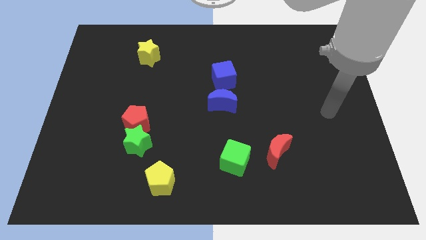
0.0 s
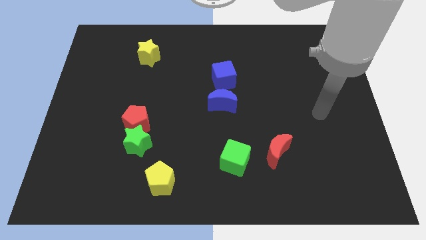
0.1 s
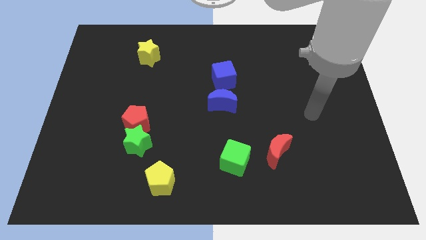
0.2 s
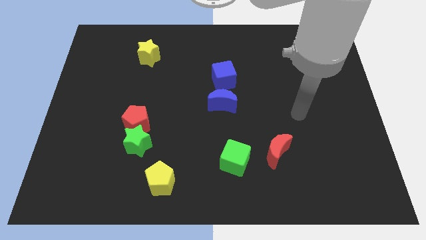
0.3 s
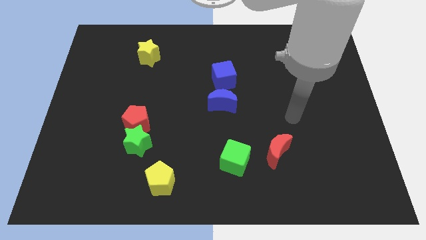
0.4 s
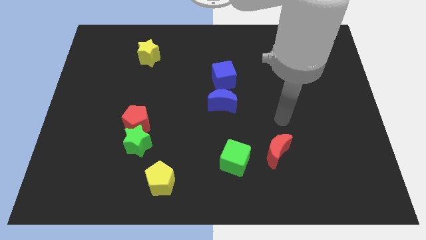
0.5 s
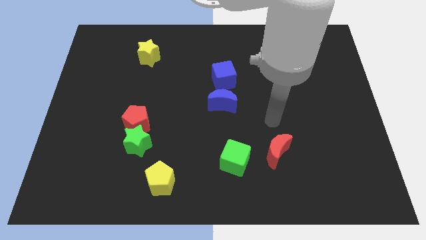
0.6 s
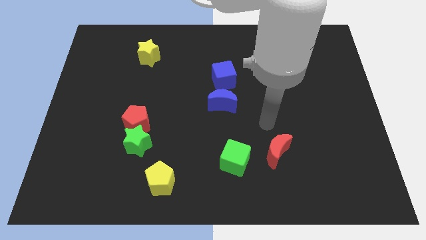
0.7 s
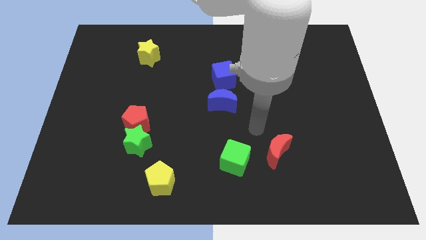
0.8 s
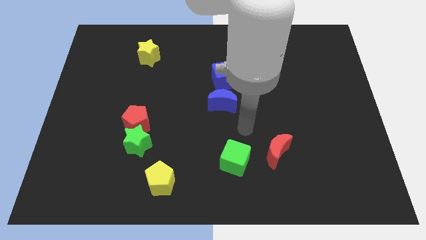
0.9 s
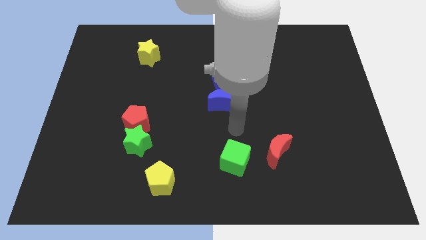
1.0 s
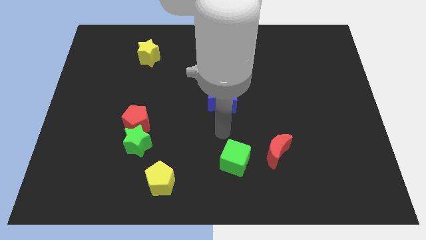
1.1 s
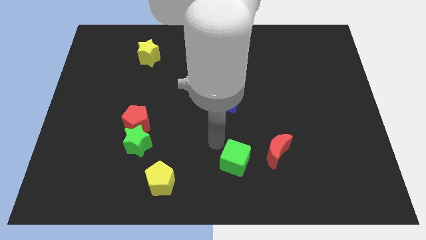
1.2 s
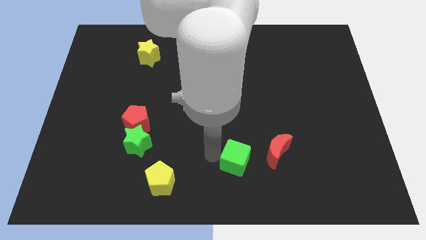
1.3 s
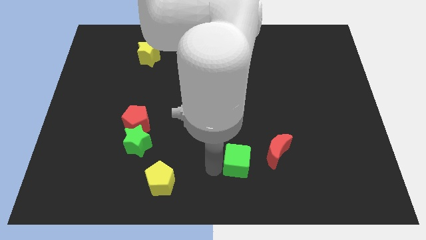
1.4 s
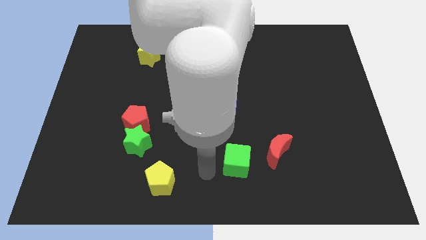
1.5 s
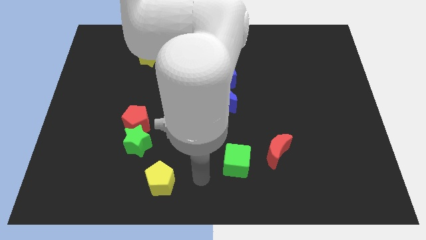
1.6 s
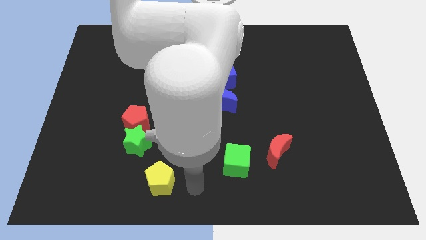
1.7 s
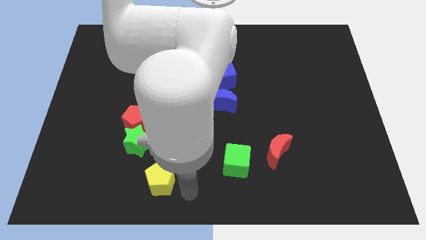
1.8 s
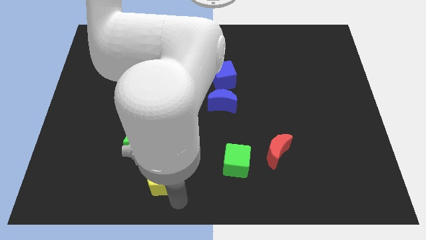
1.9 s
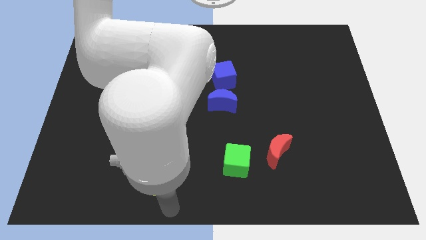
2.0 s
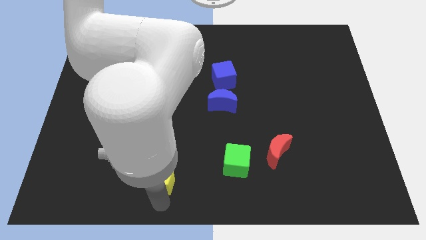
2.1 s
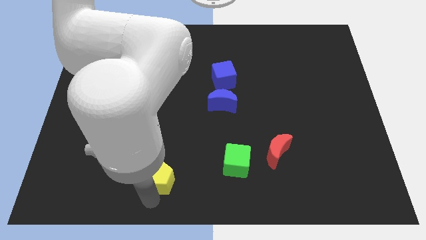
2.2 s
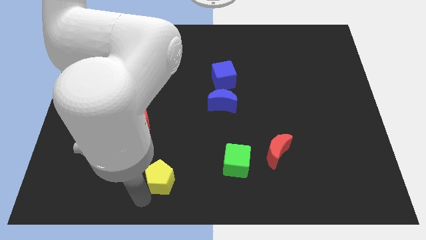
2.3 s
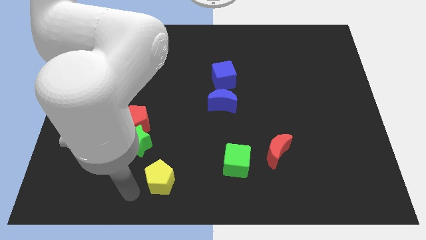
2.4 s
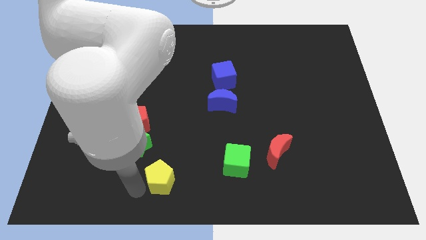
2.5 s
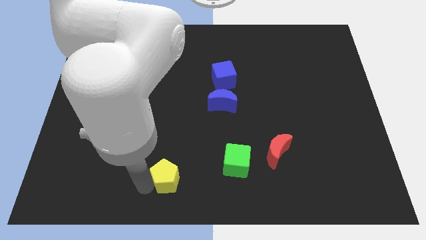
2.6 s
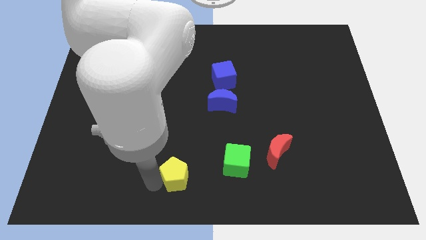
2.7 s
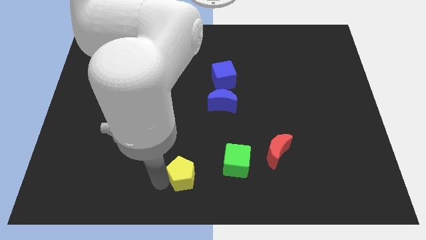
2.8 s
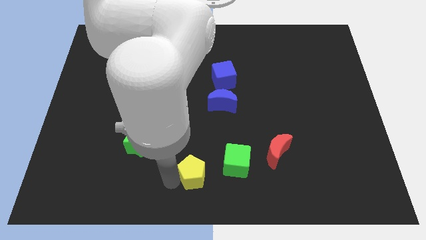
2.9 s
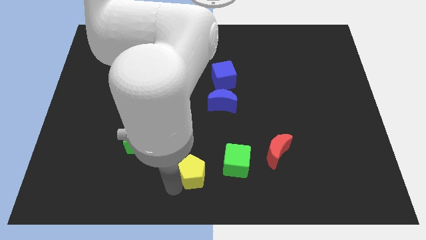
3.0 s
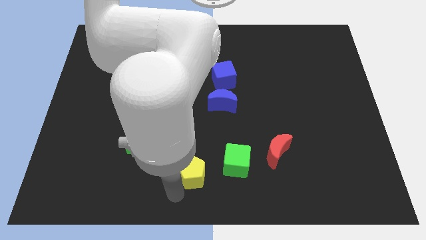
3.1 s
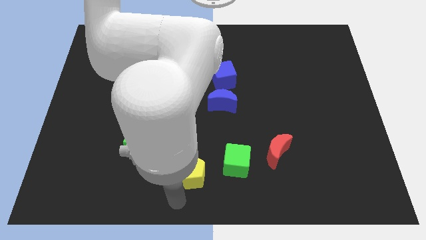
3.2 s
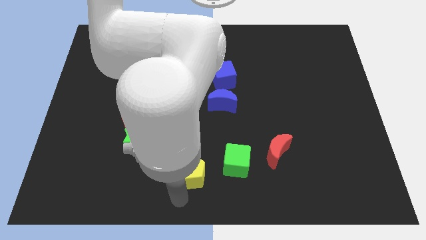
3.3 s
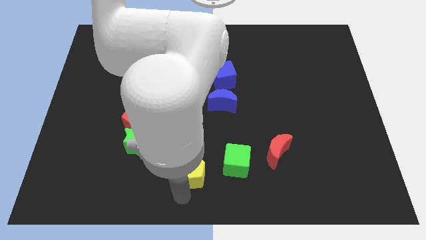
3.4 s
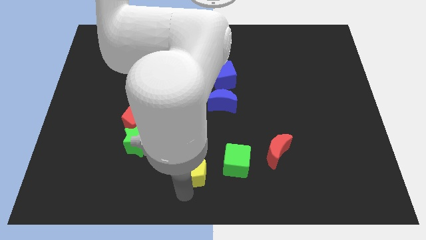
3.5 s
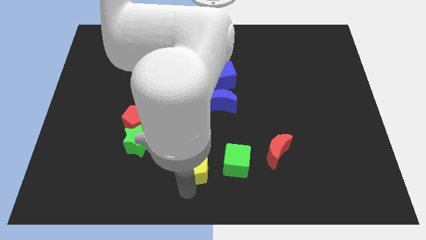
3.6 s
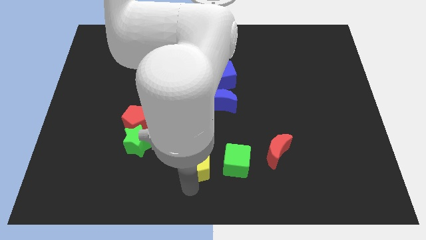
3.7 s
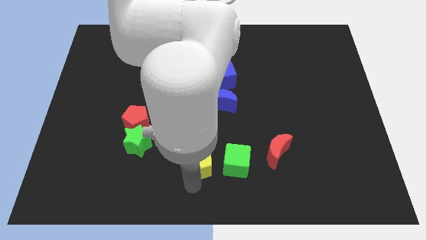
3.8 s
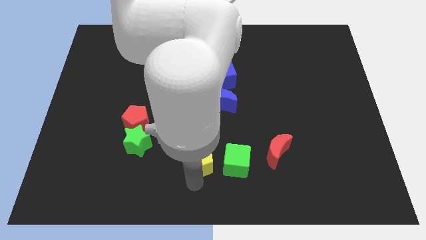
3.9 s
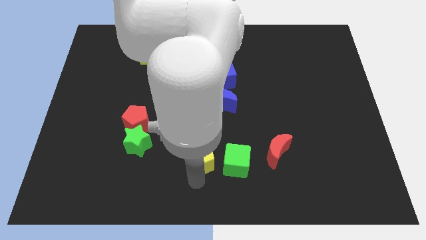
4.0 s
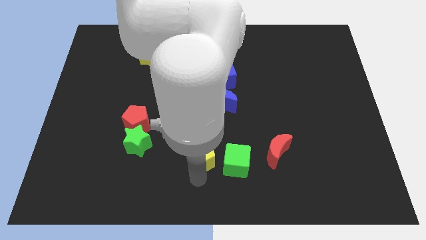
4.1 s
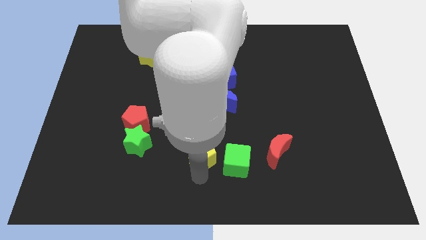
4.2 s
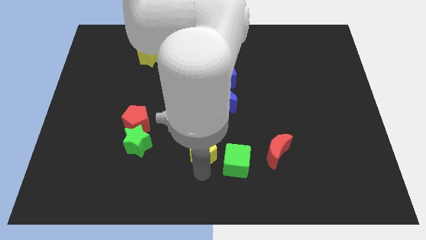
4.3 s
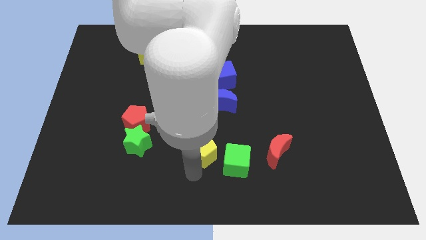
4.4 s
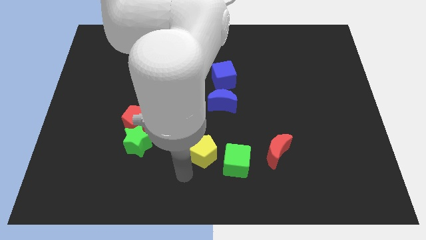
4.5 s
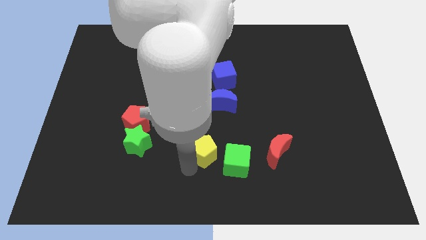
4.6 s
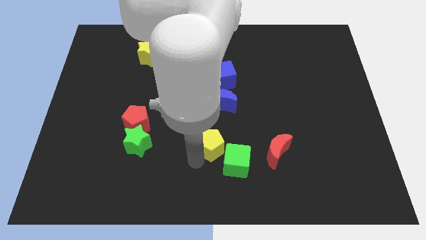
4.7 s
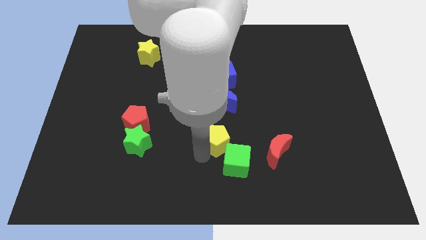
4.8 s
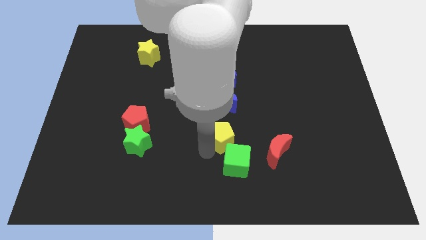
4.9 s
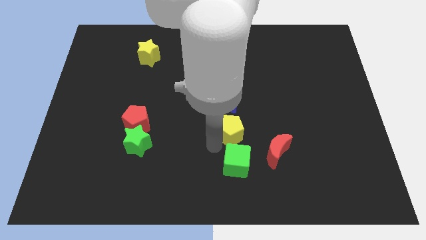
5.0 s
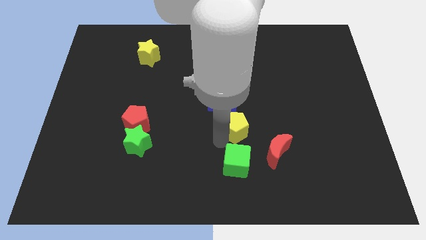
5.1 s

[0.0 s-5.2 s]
move the yellow pentagon up and then to the right

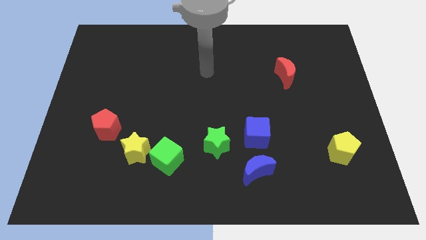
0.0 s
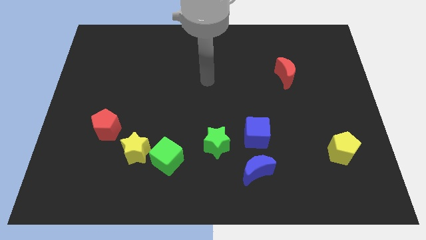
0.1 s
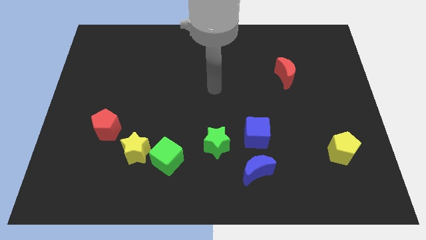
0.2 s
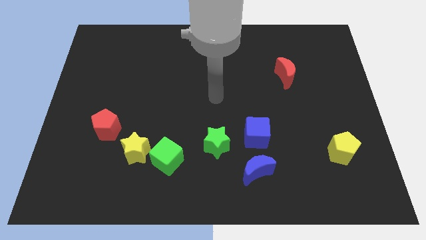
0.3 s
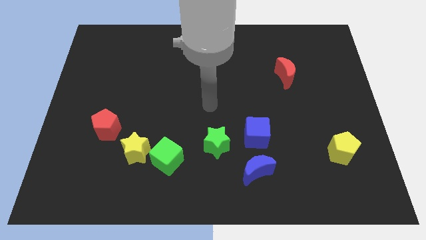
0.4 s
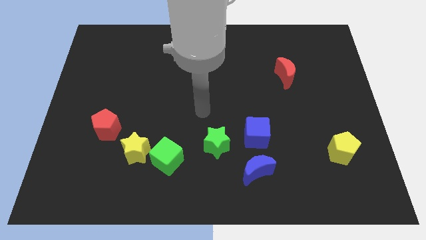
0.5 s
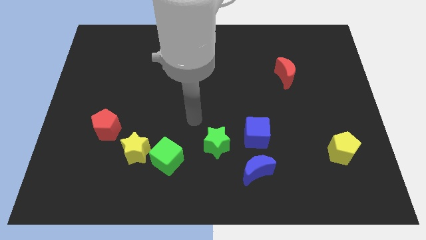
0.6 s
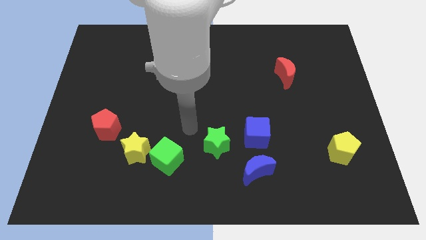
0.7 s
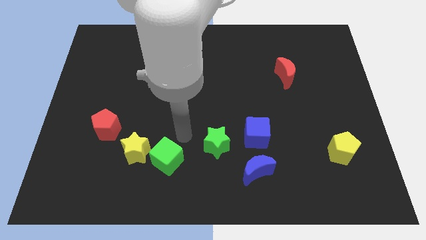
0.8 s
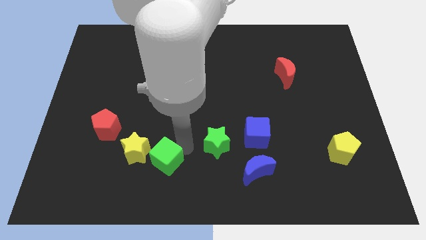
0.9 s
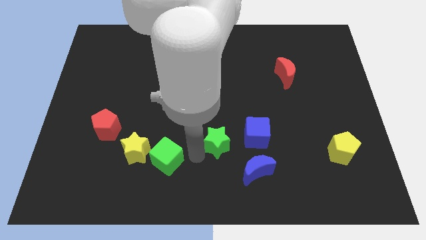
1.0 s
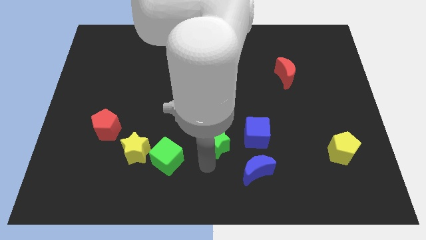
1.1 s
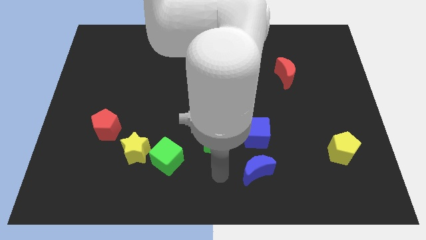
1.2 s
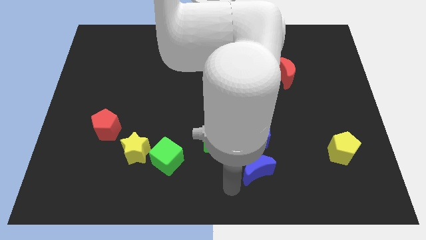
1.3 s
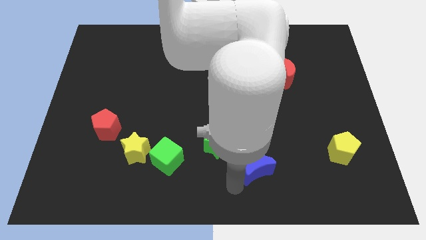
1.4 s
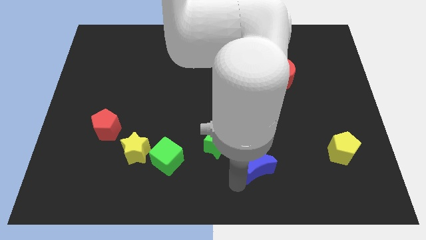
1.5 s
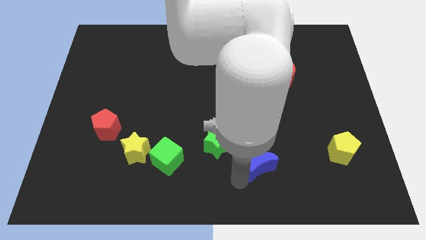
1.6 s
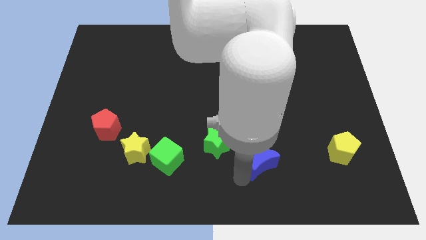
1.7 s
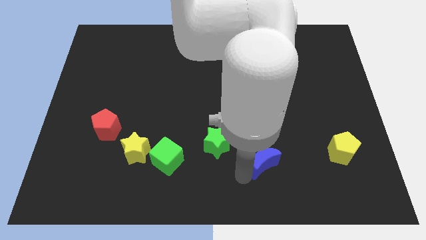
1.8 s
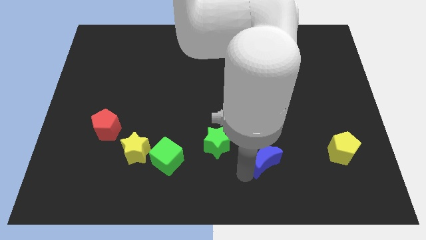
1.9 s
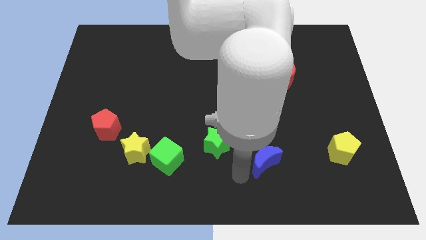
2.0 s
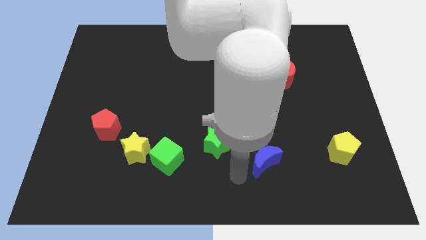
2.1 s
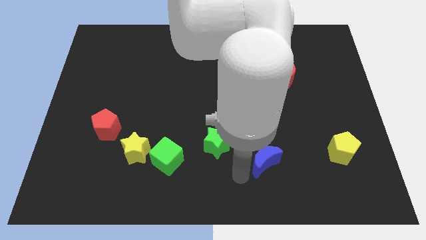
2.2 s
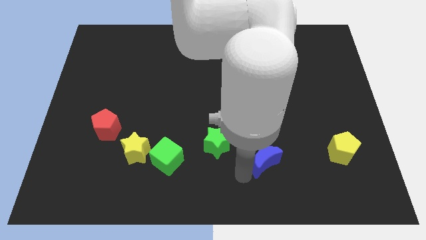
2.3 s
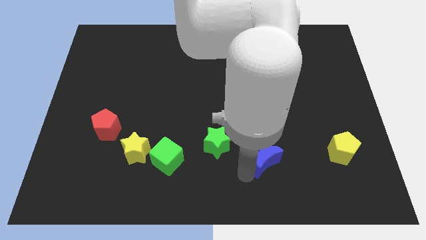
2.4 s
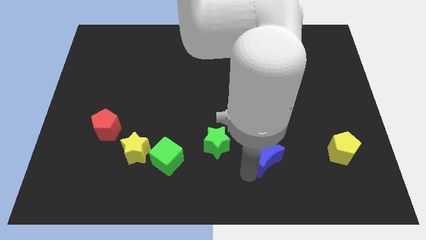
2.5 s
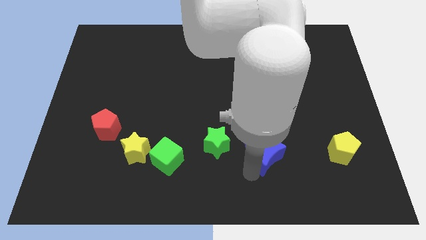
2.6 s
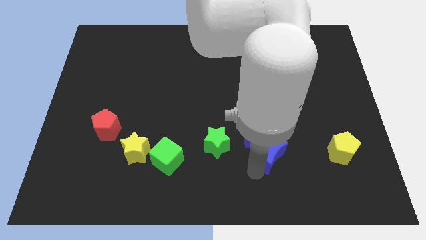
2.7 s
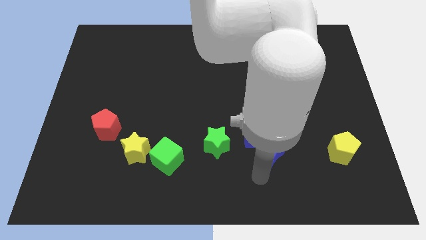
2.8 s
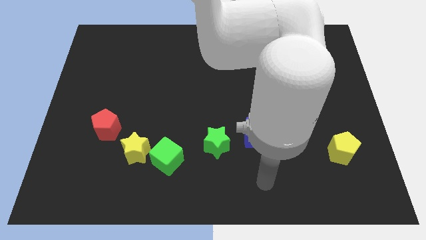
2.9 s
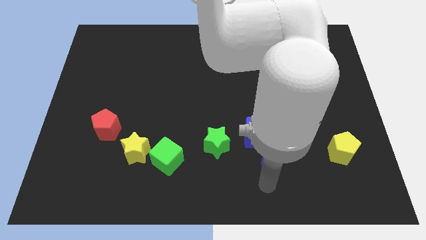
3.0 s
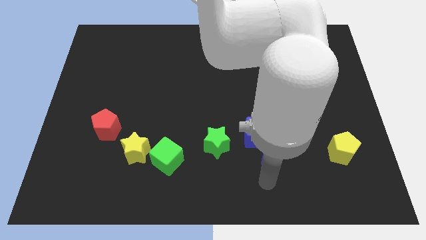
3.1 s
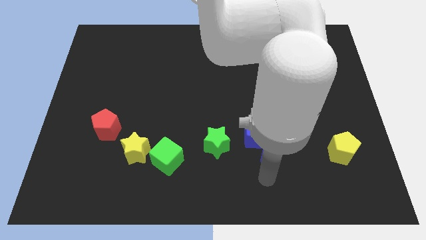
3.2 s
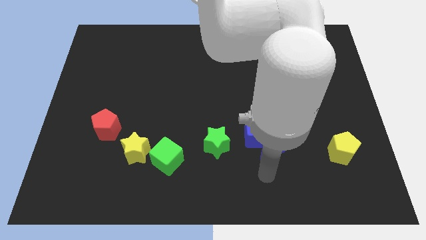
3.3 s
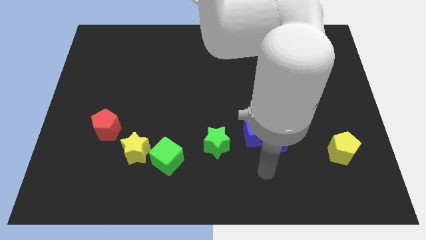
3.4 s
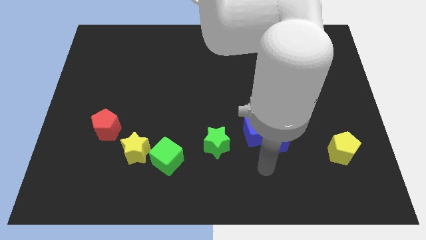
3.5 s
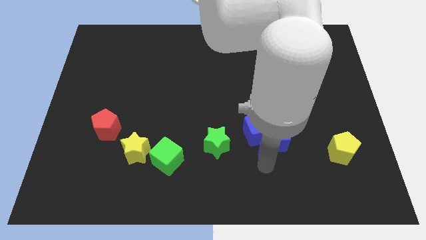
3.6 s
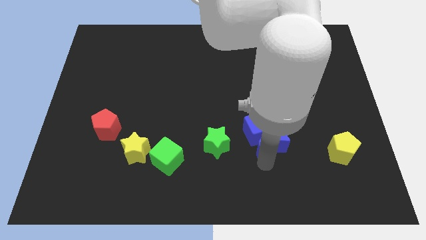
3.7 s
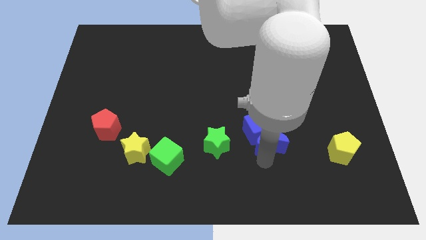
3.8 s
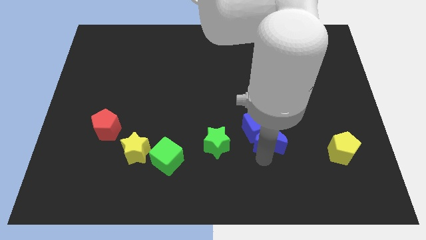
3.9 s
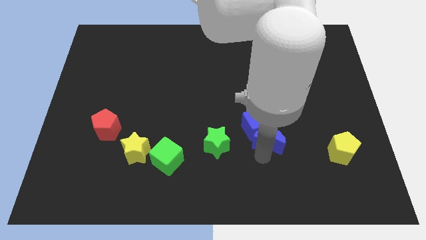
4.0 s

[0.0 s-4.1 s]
slightly slide the blue moon upwards
